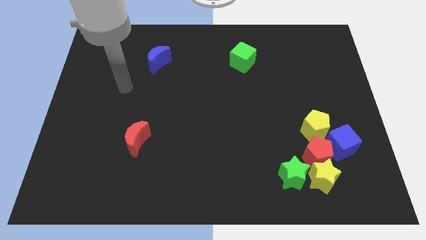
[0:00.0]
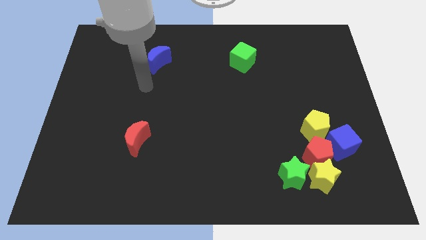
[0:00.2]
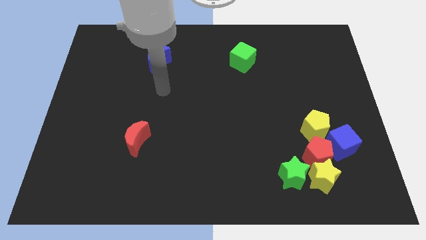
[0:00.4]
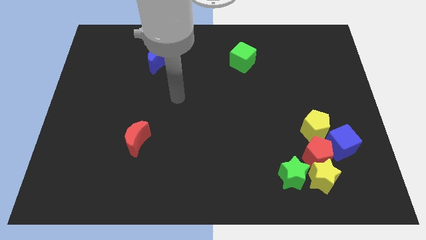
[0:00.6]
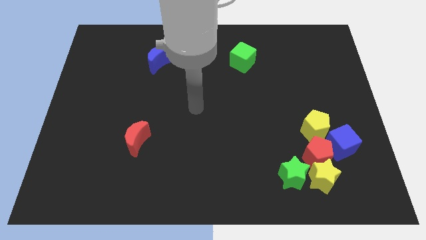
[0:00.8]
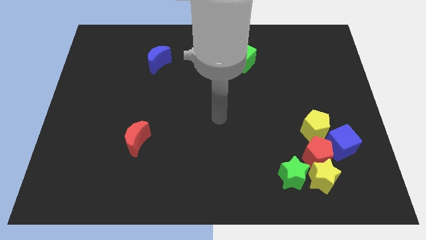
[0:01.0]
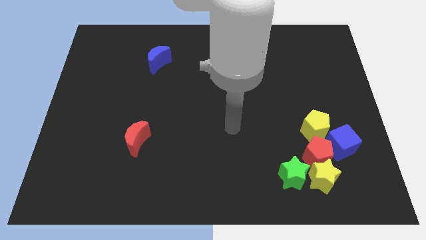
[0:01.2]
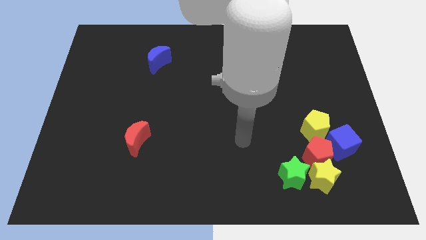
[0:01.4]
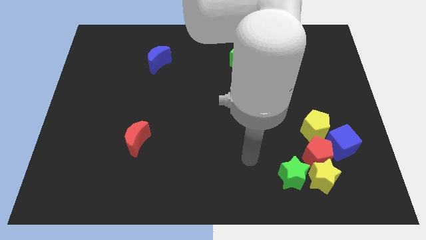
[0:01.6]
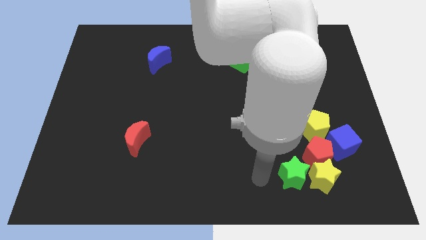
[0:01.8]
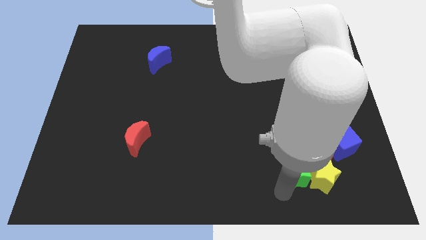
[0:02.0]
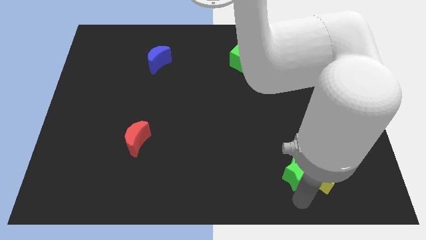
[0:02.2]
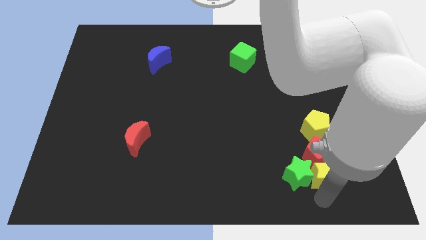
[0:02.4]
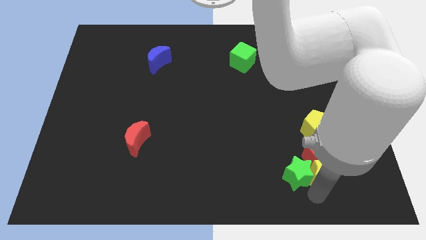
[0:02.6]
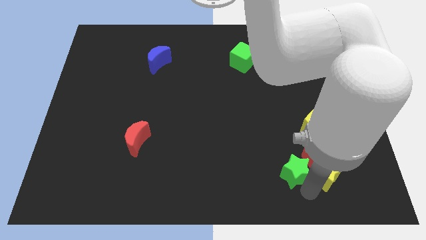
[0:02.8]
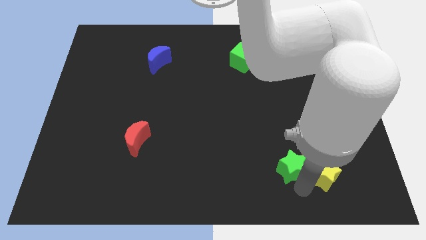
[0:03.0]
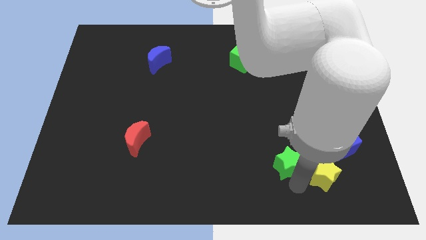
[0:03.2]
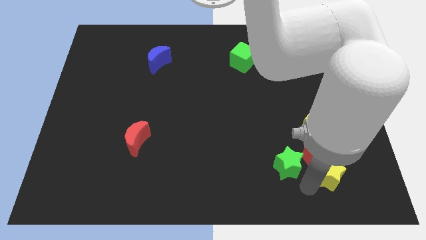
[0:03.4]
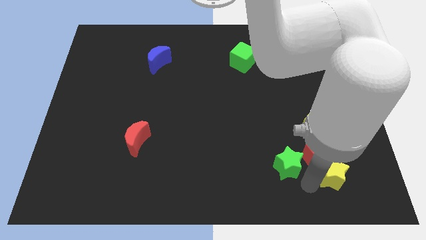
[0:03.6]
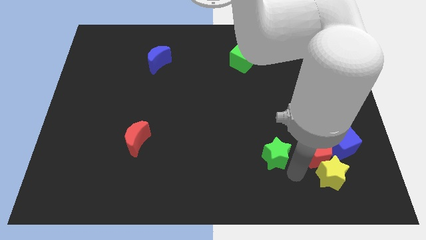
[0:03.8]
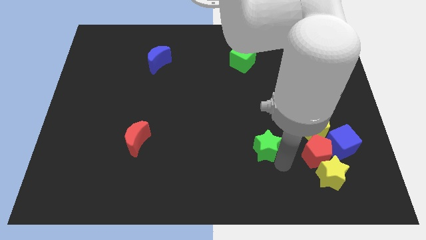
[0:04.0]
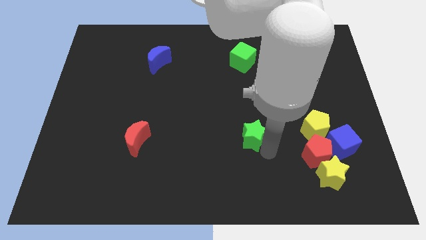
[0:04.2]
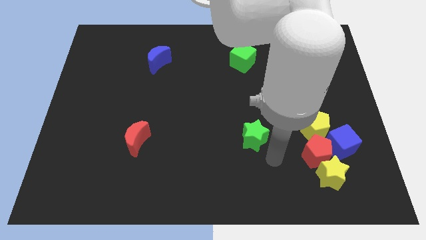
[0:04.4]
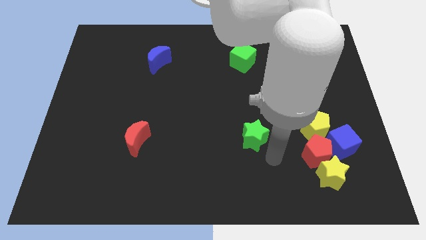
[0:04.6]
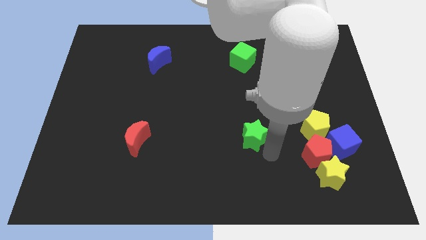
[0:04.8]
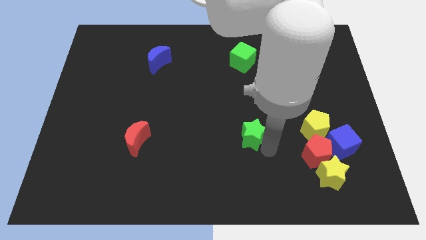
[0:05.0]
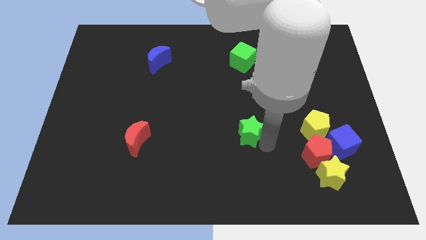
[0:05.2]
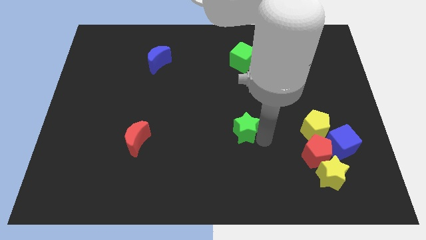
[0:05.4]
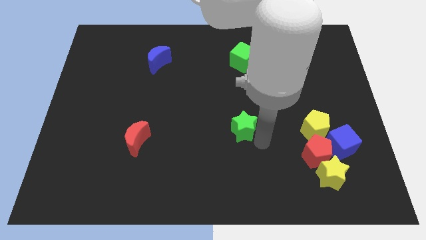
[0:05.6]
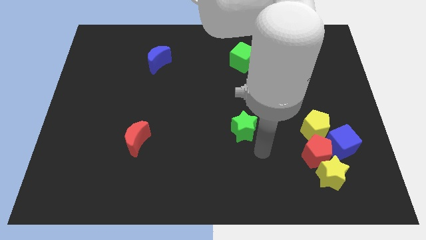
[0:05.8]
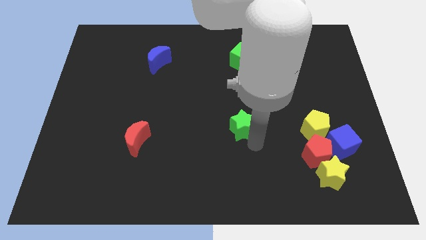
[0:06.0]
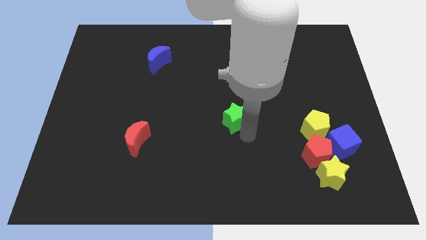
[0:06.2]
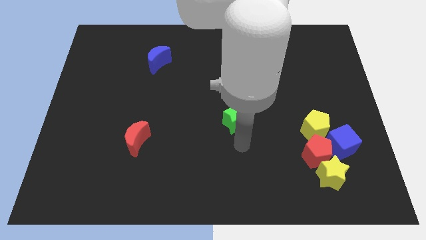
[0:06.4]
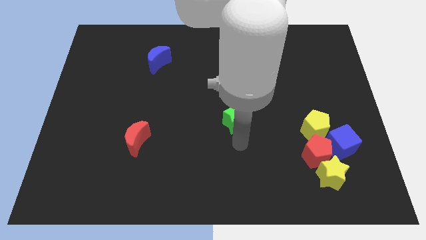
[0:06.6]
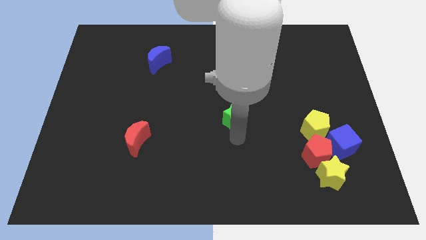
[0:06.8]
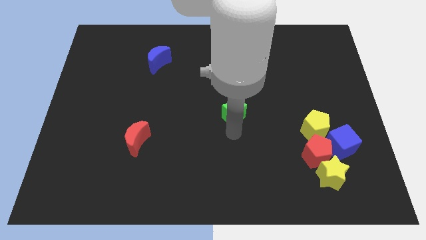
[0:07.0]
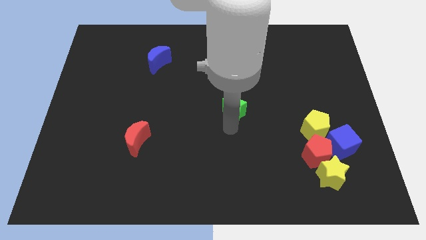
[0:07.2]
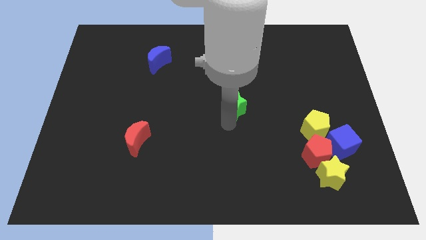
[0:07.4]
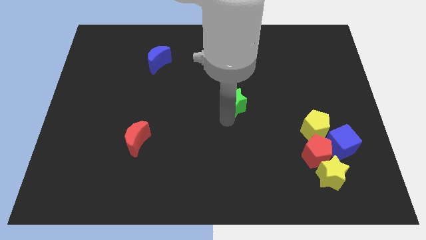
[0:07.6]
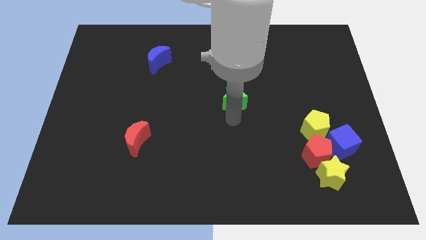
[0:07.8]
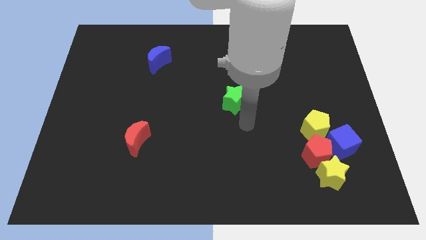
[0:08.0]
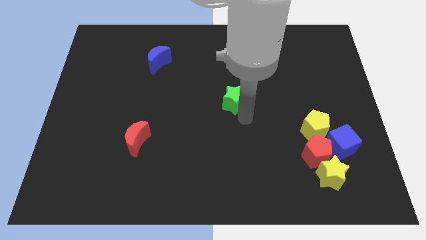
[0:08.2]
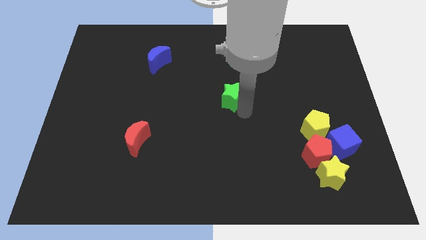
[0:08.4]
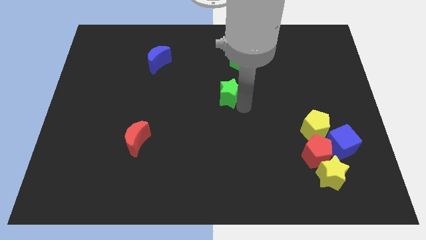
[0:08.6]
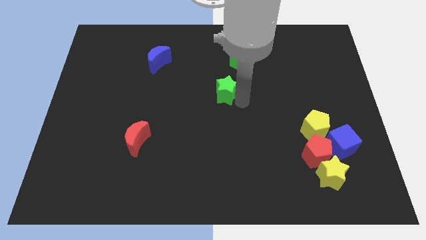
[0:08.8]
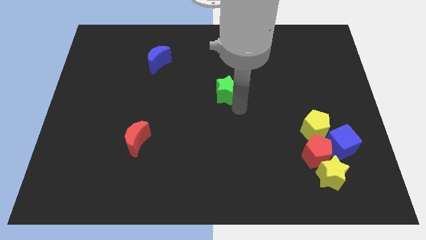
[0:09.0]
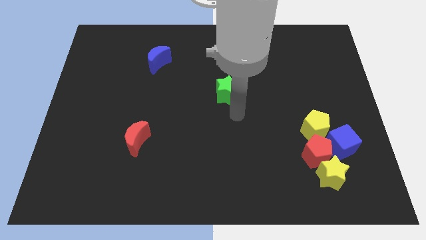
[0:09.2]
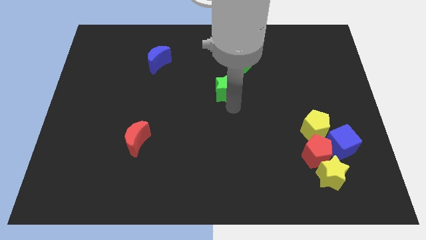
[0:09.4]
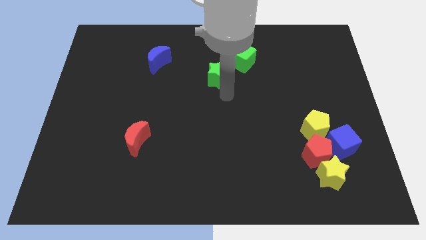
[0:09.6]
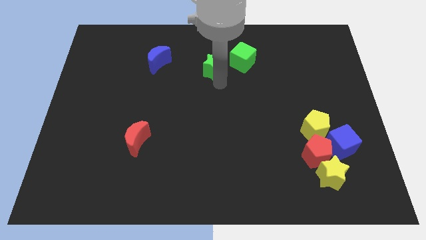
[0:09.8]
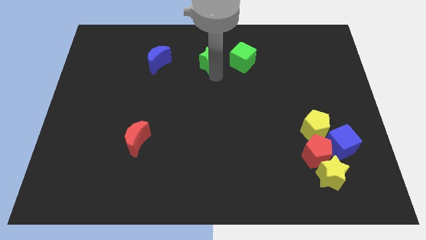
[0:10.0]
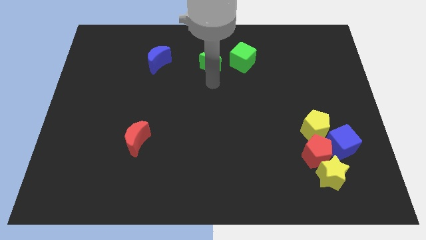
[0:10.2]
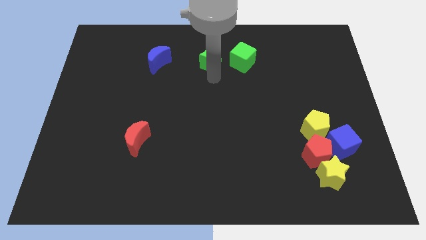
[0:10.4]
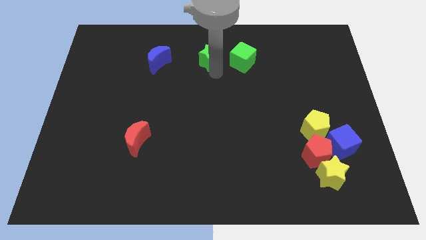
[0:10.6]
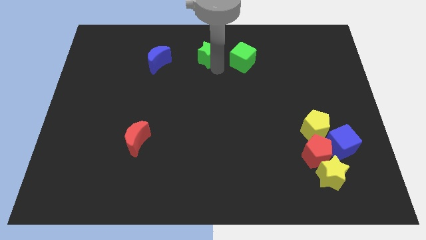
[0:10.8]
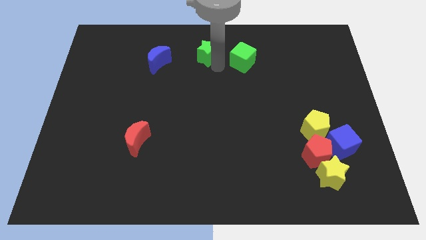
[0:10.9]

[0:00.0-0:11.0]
push the green star to the towards your base
